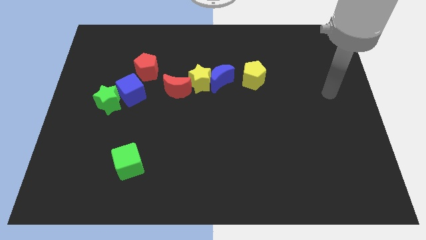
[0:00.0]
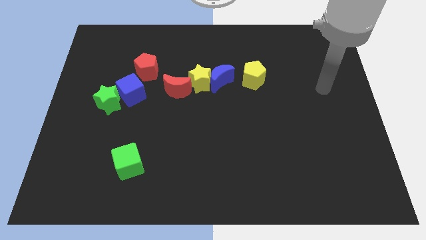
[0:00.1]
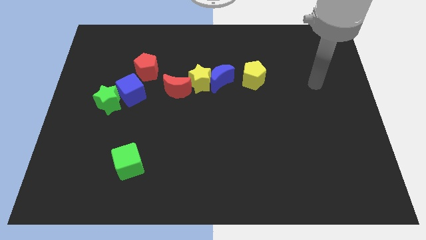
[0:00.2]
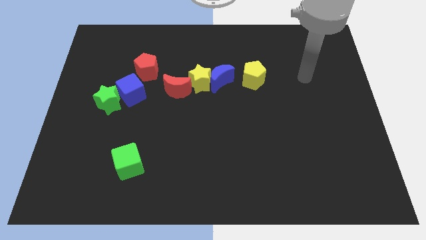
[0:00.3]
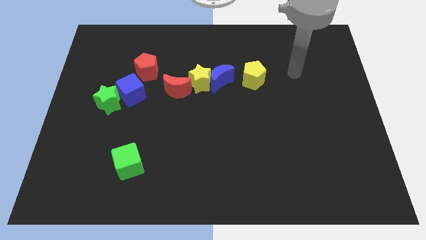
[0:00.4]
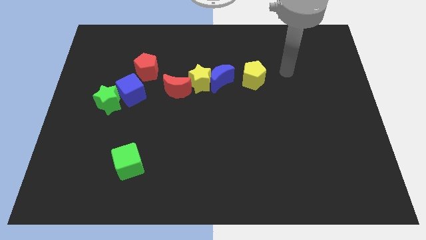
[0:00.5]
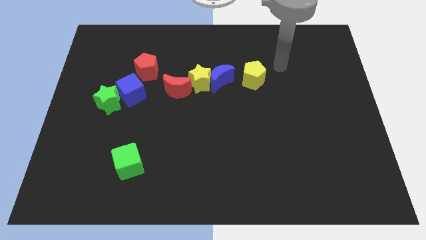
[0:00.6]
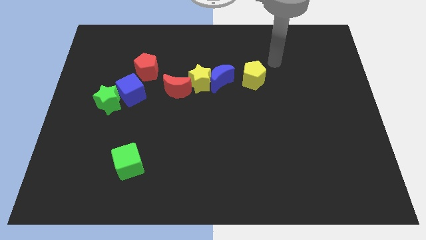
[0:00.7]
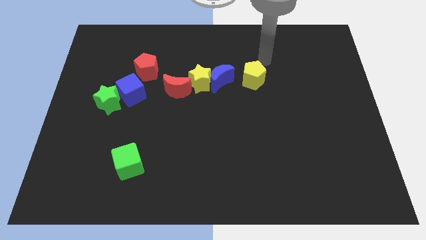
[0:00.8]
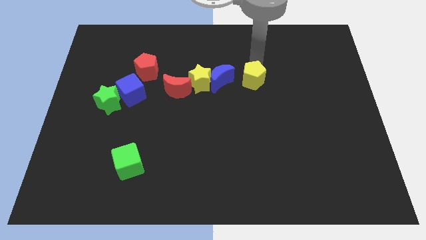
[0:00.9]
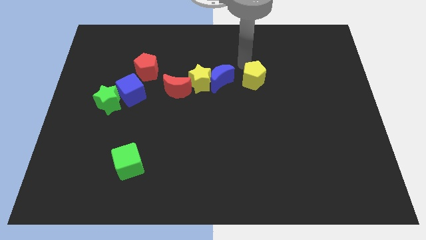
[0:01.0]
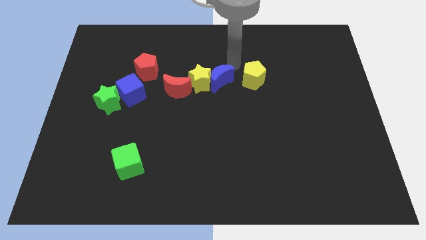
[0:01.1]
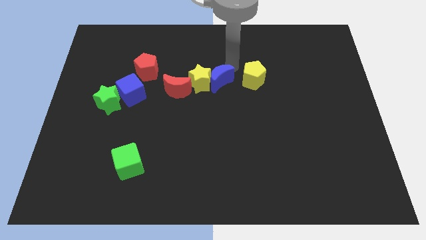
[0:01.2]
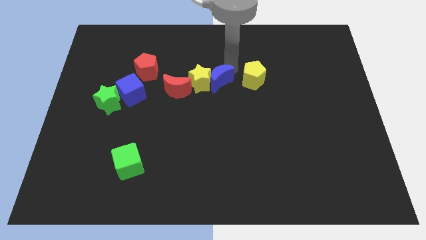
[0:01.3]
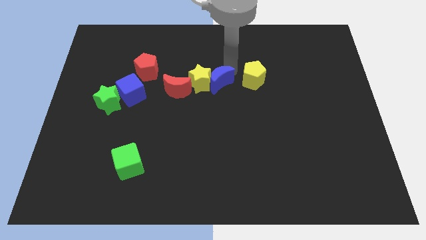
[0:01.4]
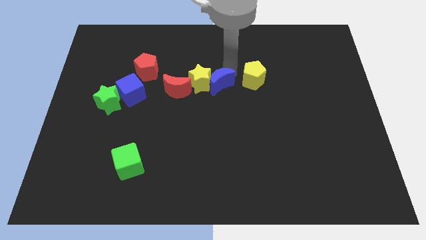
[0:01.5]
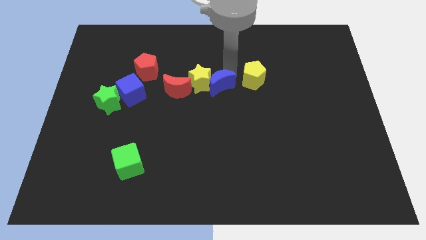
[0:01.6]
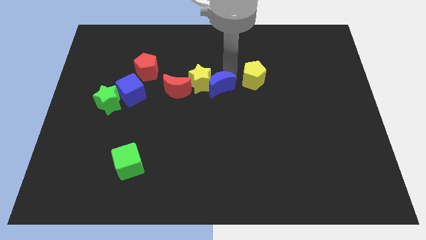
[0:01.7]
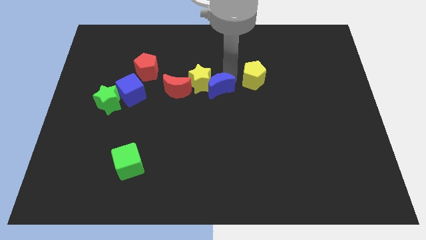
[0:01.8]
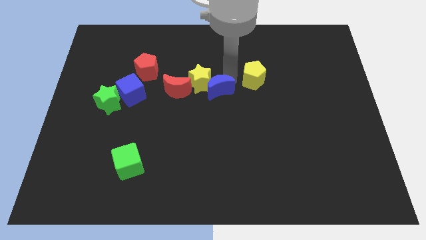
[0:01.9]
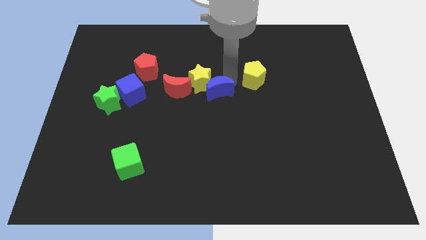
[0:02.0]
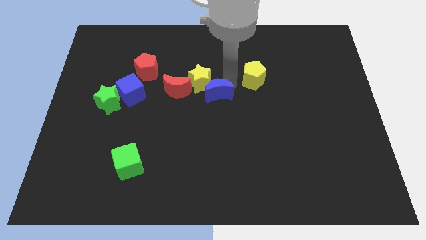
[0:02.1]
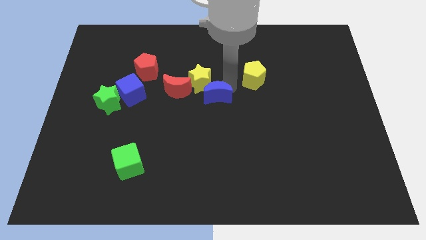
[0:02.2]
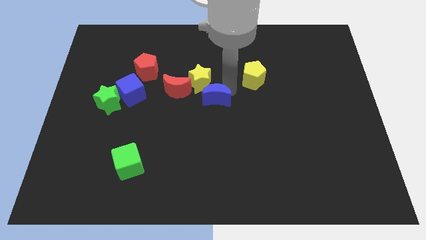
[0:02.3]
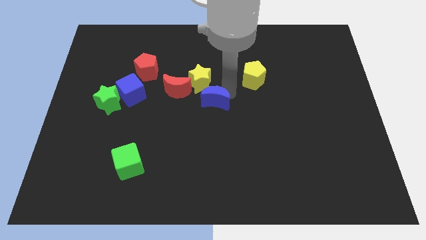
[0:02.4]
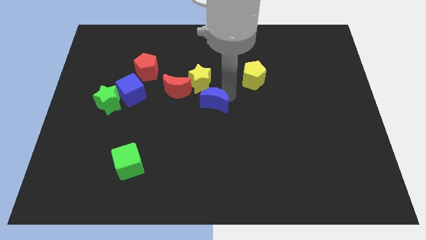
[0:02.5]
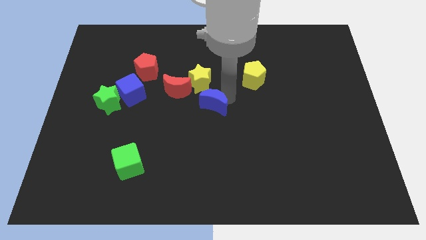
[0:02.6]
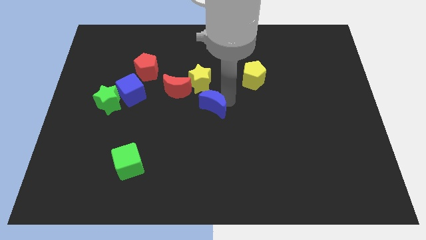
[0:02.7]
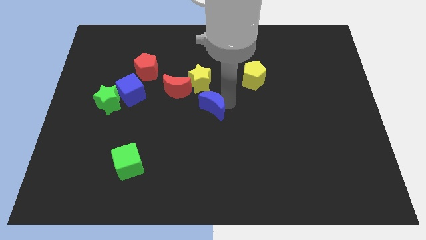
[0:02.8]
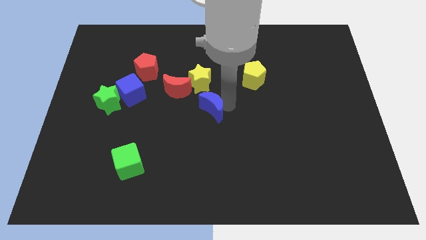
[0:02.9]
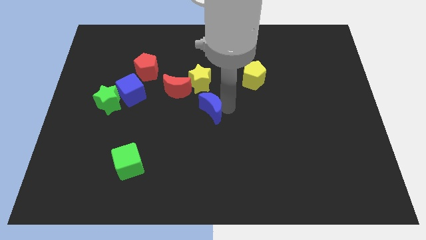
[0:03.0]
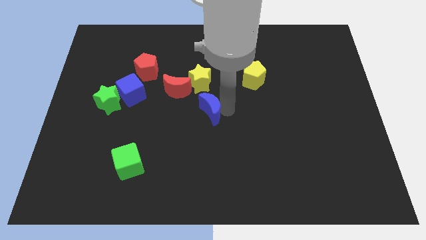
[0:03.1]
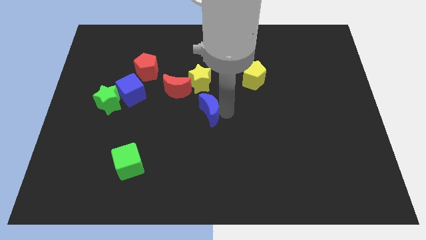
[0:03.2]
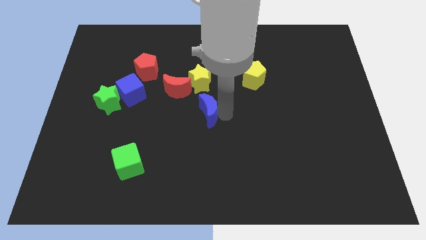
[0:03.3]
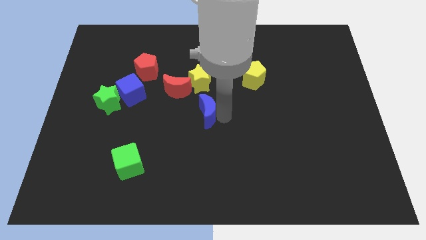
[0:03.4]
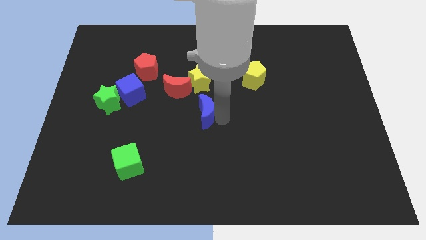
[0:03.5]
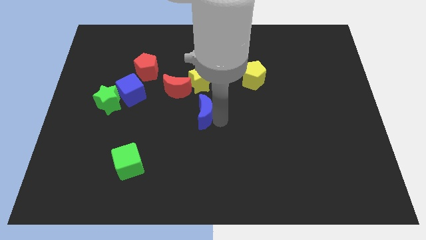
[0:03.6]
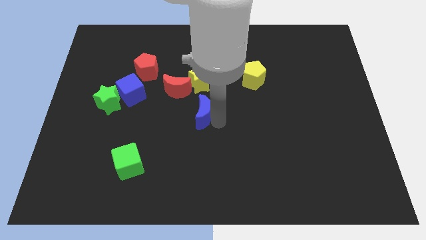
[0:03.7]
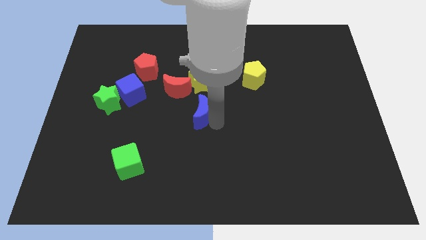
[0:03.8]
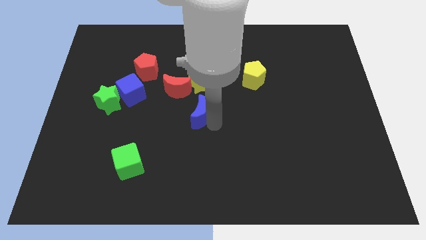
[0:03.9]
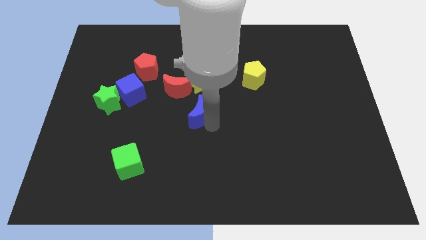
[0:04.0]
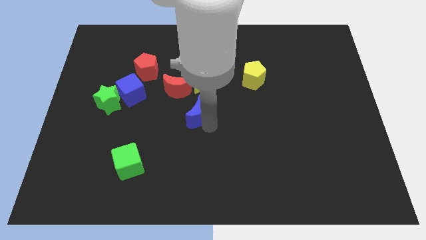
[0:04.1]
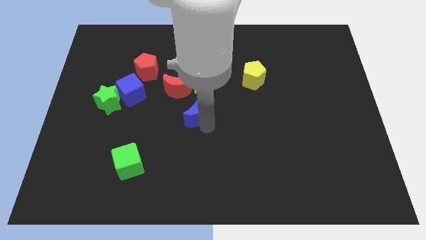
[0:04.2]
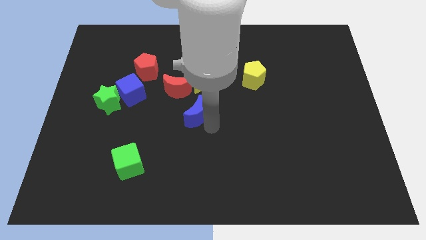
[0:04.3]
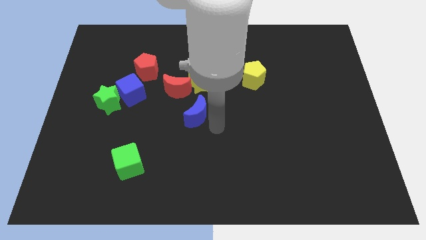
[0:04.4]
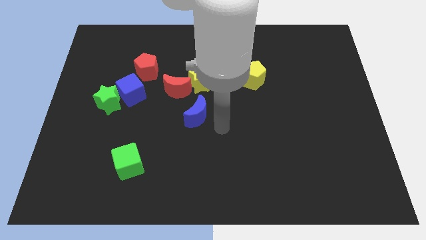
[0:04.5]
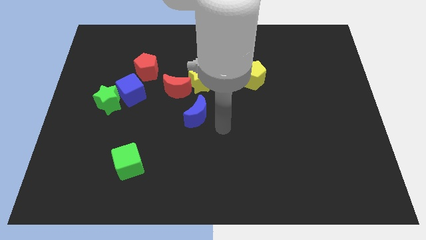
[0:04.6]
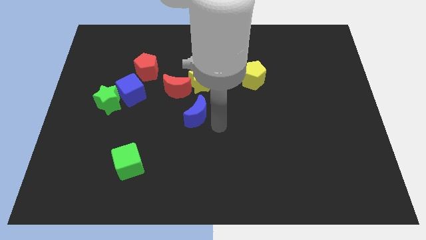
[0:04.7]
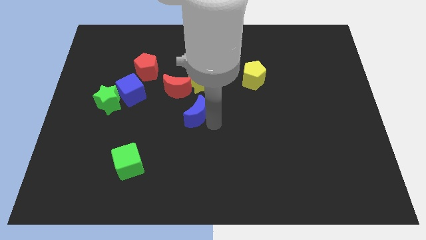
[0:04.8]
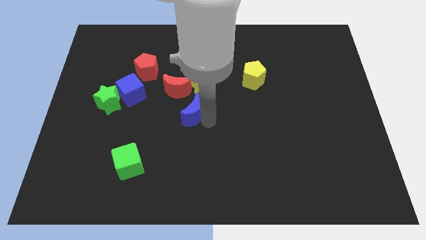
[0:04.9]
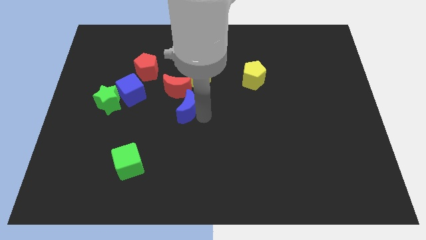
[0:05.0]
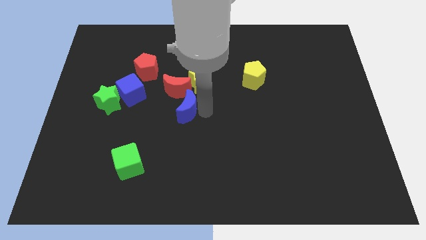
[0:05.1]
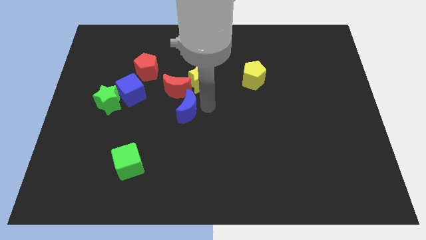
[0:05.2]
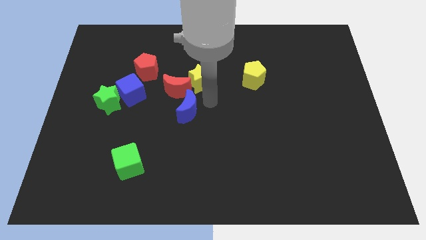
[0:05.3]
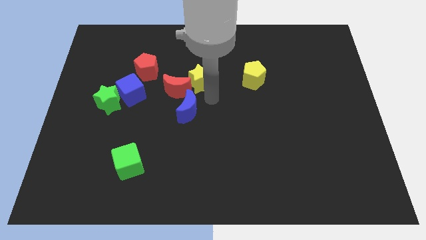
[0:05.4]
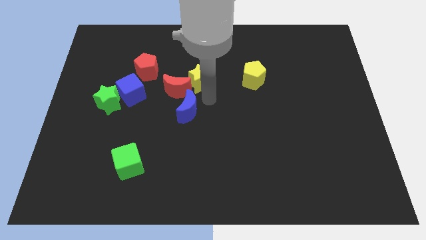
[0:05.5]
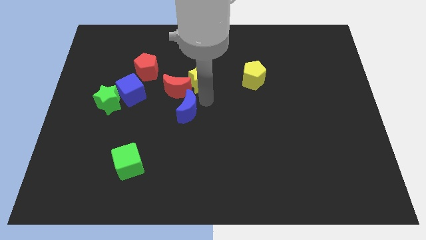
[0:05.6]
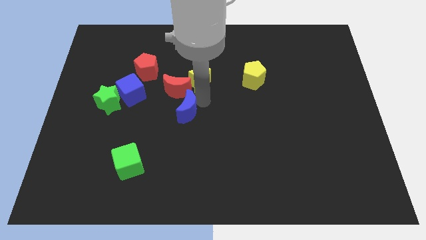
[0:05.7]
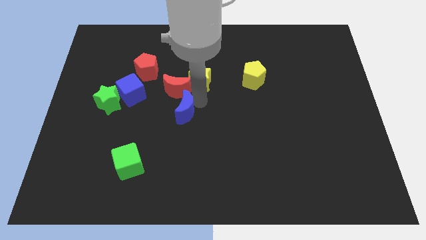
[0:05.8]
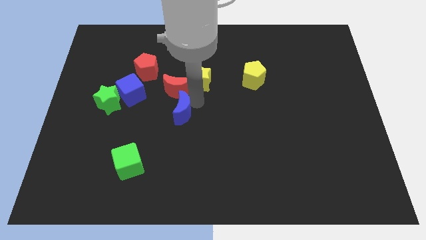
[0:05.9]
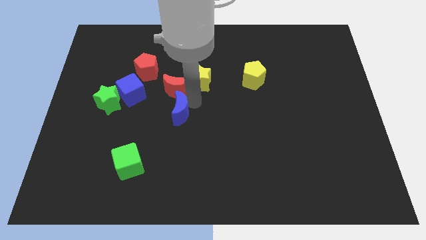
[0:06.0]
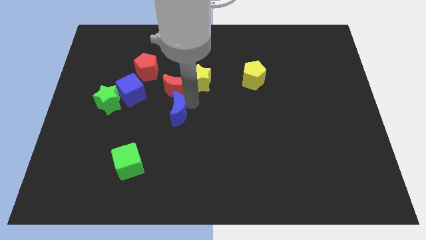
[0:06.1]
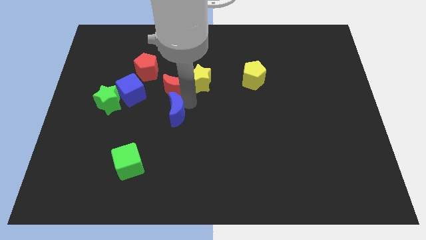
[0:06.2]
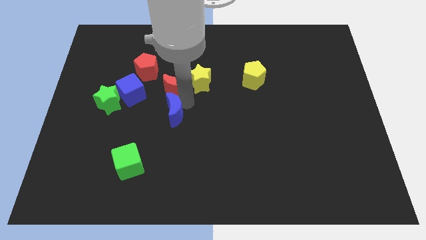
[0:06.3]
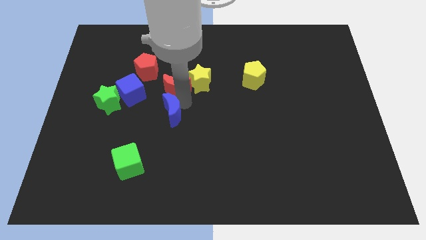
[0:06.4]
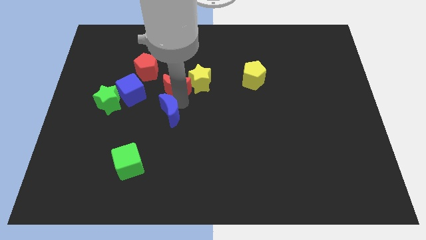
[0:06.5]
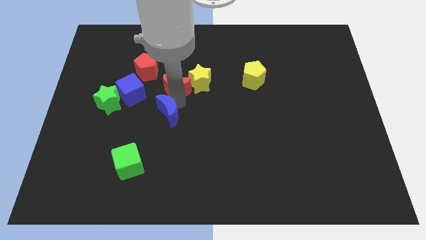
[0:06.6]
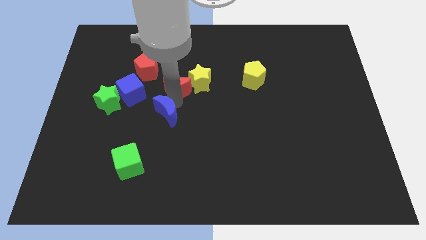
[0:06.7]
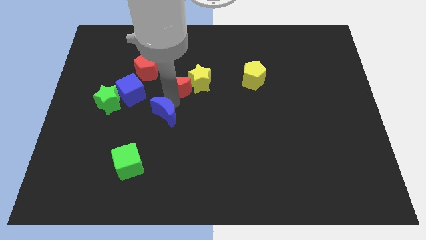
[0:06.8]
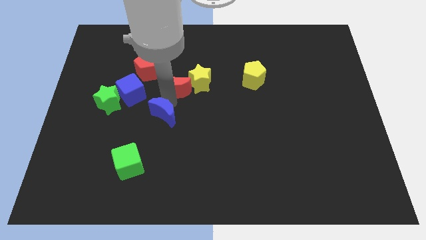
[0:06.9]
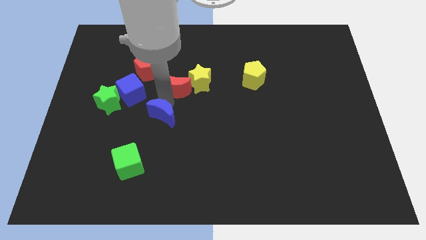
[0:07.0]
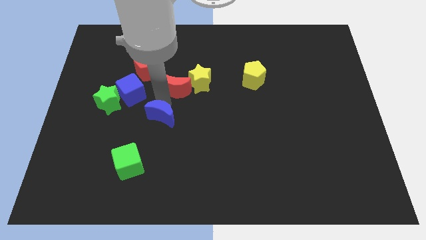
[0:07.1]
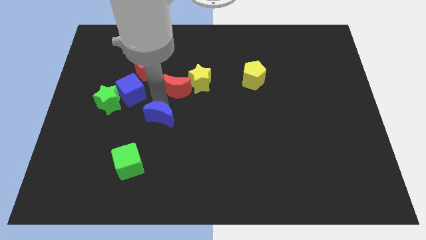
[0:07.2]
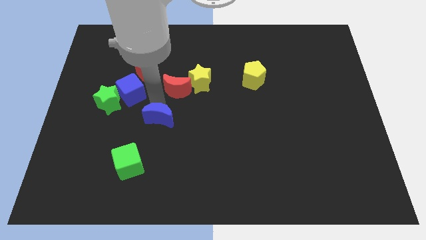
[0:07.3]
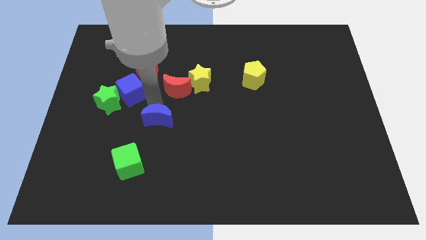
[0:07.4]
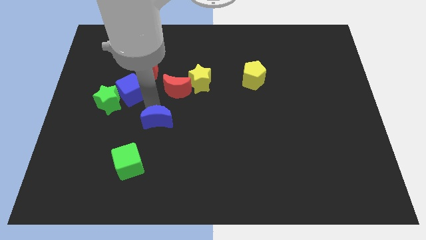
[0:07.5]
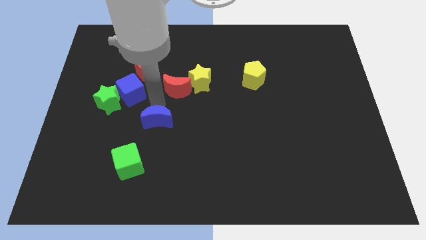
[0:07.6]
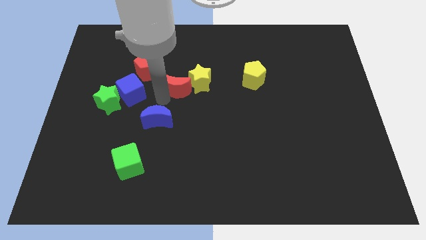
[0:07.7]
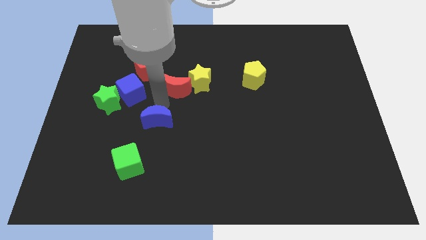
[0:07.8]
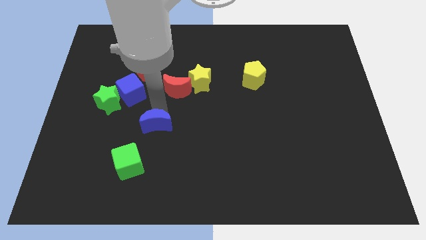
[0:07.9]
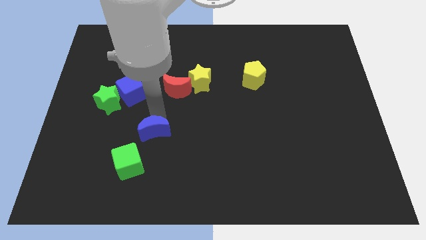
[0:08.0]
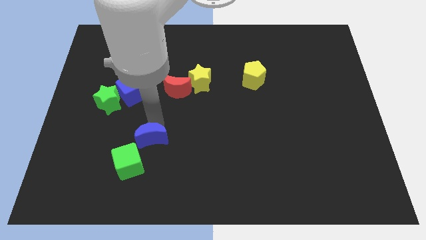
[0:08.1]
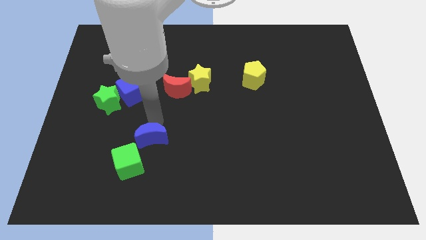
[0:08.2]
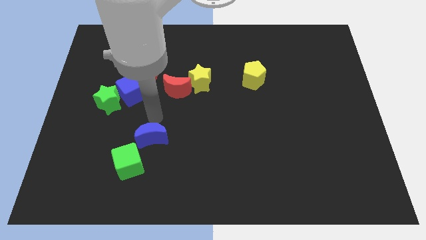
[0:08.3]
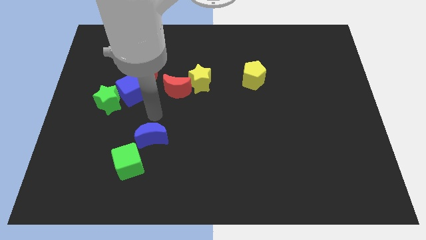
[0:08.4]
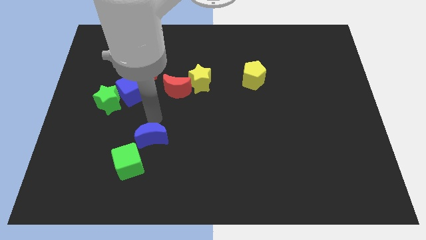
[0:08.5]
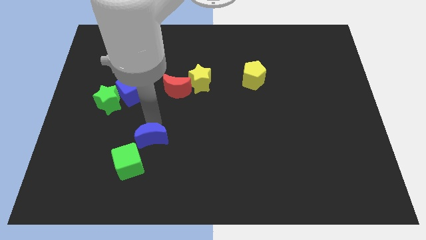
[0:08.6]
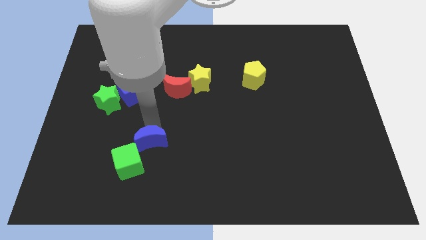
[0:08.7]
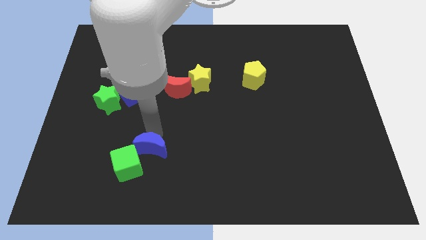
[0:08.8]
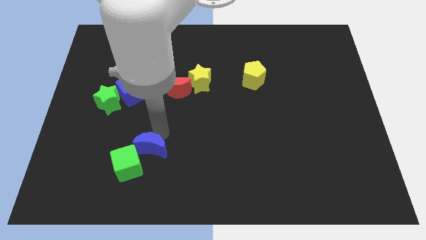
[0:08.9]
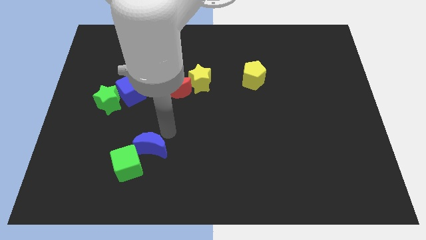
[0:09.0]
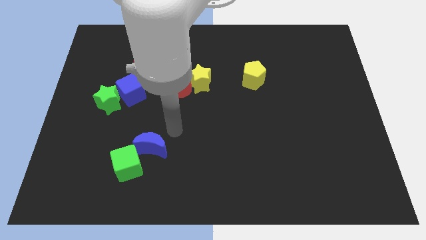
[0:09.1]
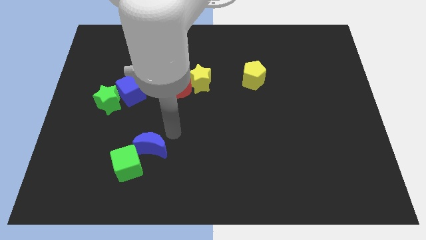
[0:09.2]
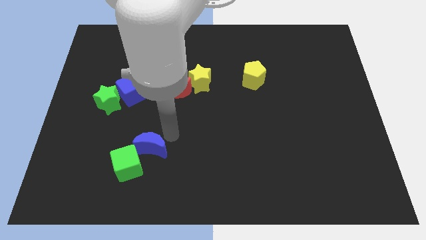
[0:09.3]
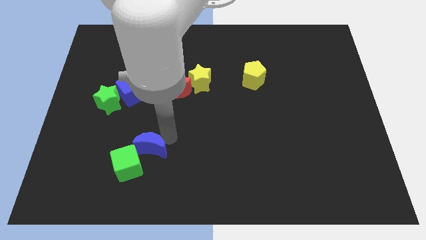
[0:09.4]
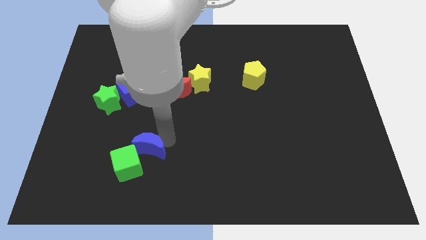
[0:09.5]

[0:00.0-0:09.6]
move the blue moon close to the green cube
